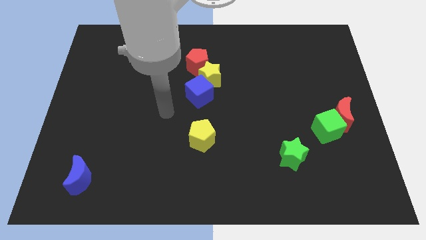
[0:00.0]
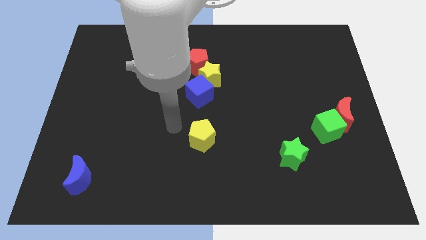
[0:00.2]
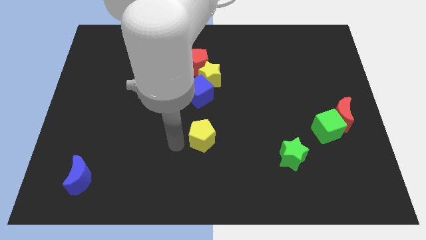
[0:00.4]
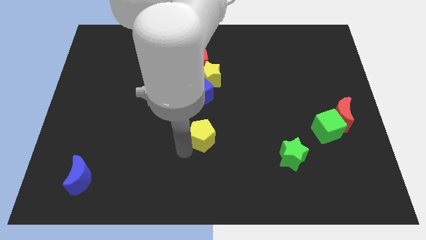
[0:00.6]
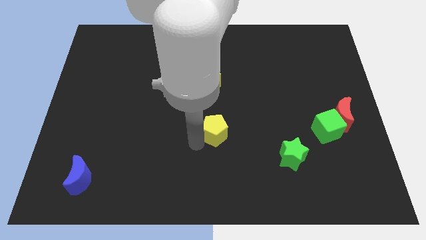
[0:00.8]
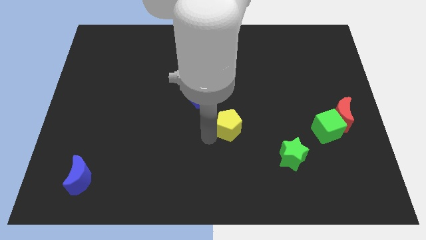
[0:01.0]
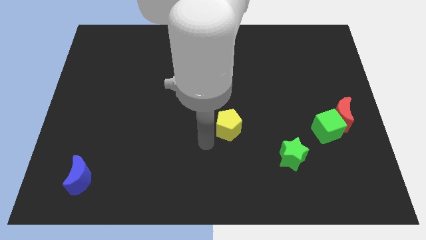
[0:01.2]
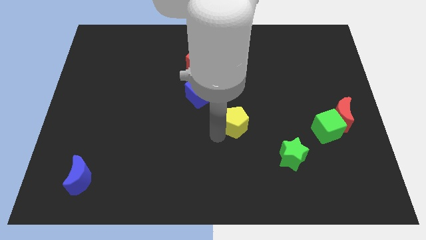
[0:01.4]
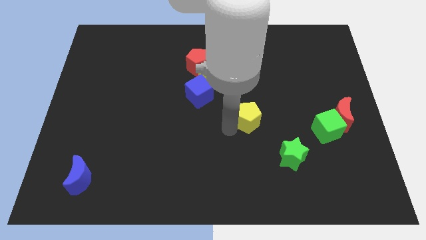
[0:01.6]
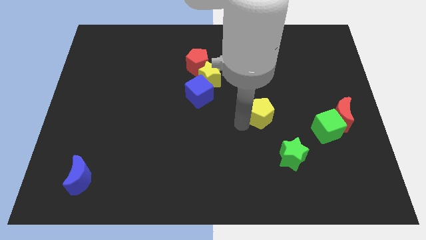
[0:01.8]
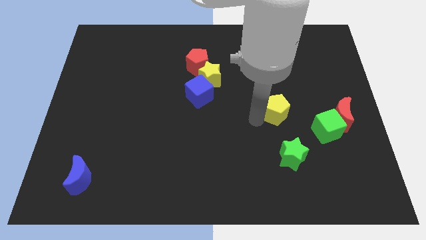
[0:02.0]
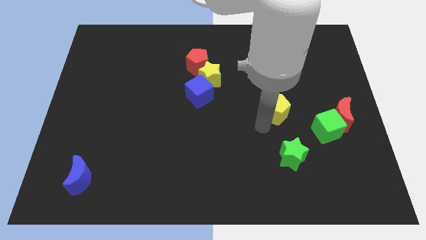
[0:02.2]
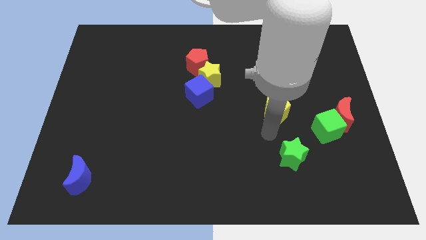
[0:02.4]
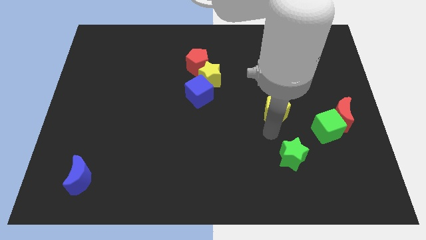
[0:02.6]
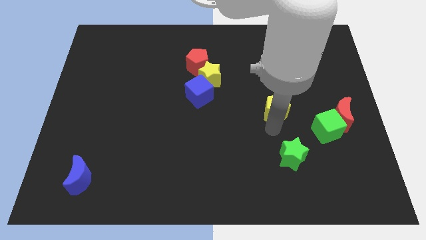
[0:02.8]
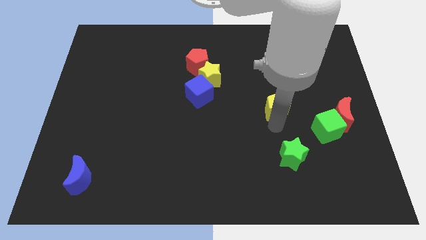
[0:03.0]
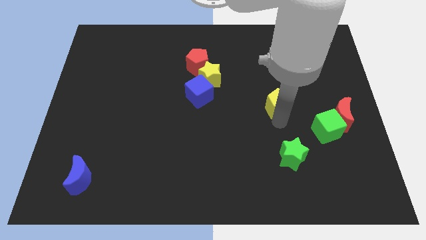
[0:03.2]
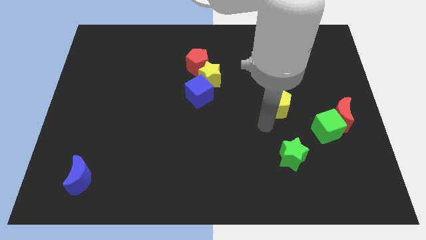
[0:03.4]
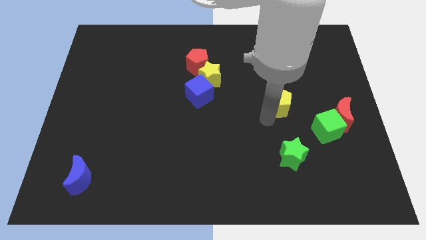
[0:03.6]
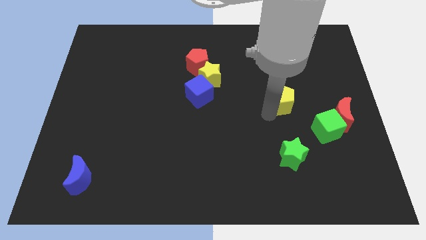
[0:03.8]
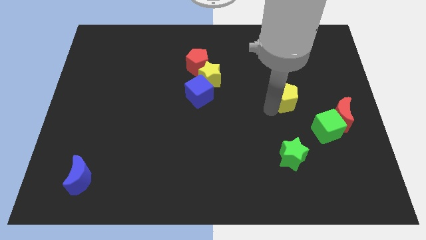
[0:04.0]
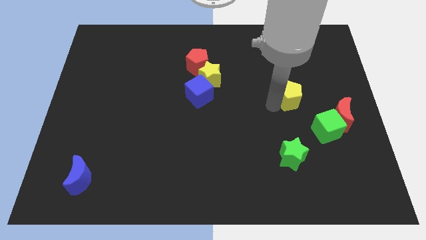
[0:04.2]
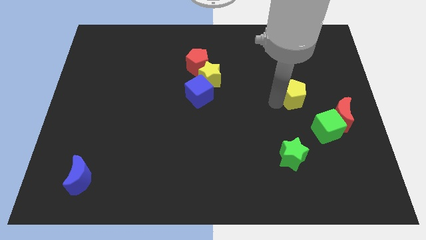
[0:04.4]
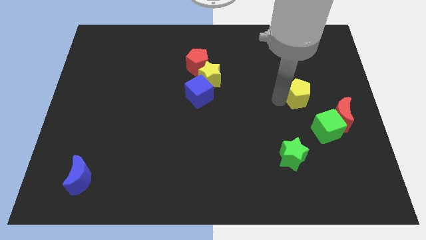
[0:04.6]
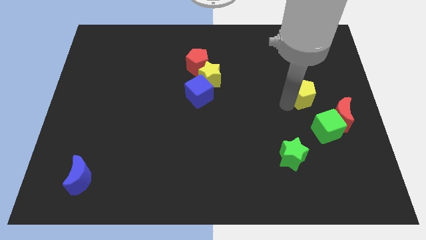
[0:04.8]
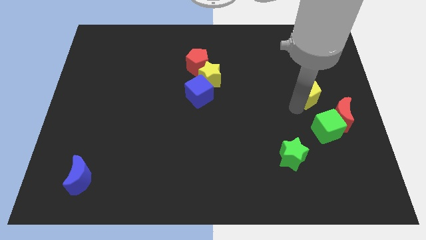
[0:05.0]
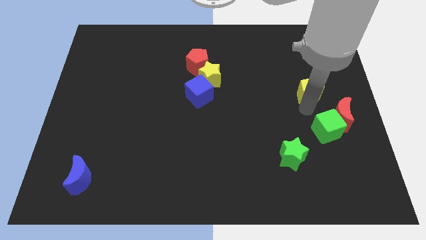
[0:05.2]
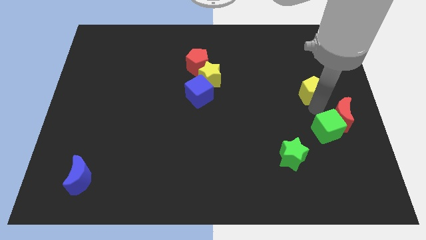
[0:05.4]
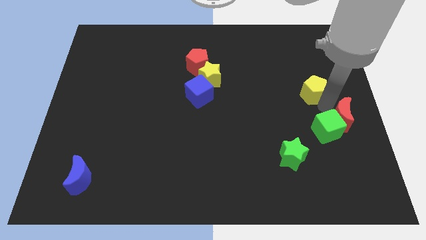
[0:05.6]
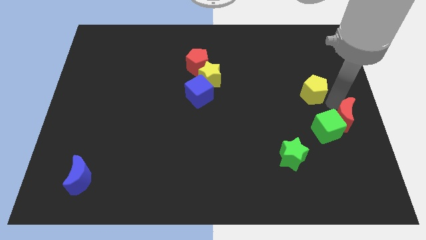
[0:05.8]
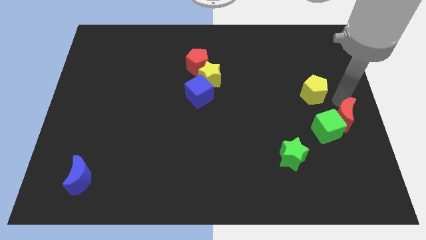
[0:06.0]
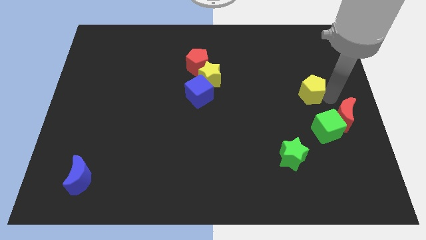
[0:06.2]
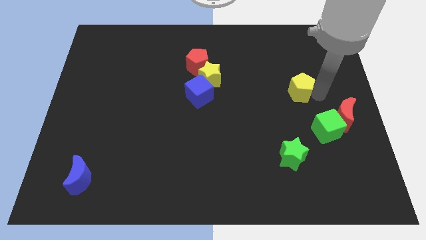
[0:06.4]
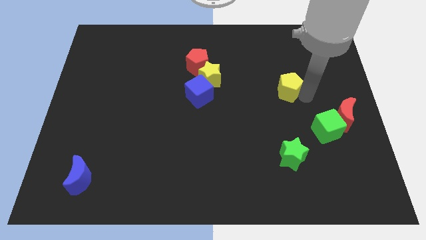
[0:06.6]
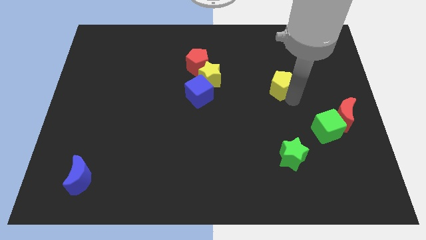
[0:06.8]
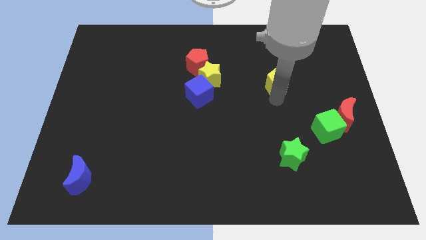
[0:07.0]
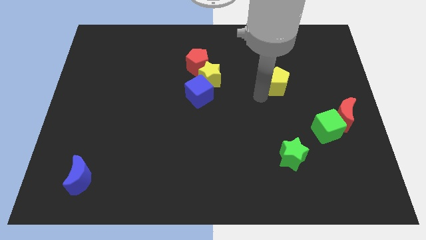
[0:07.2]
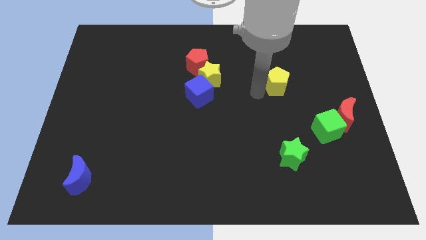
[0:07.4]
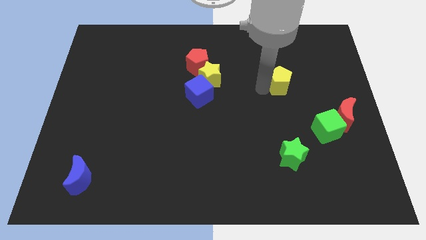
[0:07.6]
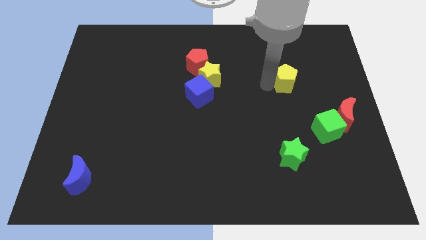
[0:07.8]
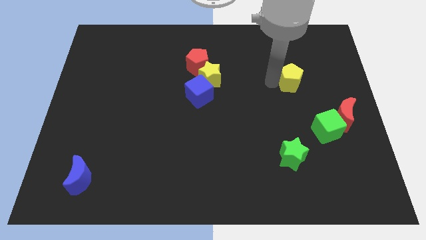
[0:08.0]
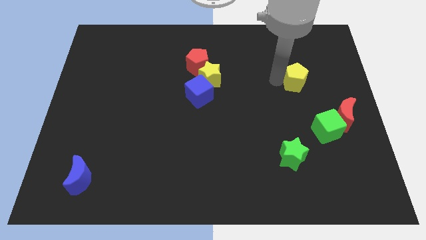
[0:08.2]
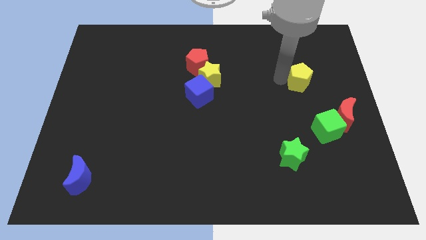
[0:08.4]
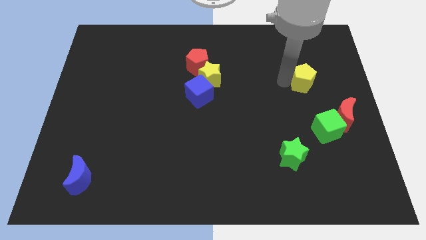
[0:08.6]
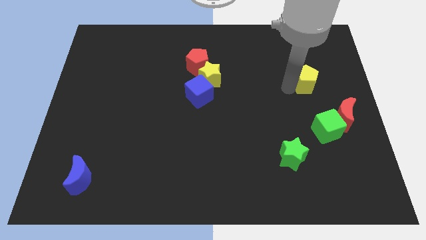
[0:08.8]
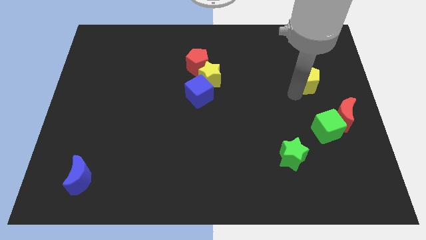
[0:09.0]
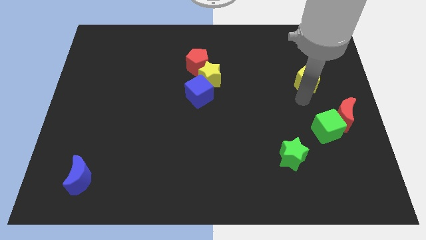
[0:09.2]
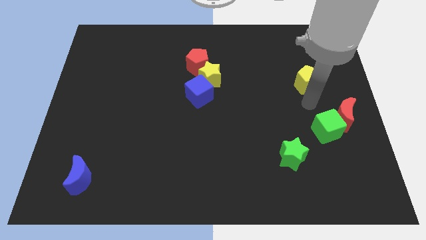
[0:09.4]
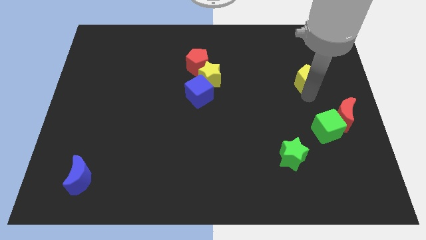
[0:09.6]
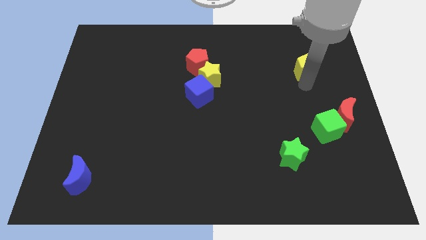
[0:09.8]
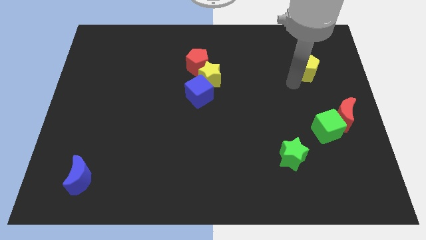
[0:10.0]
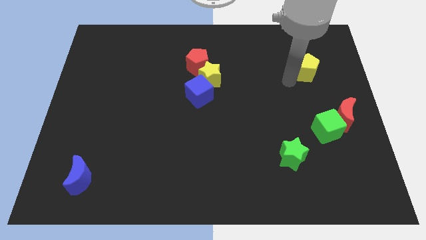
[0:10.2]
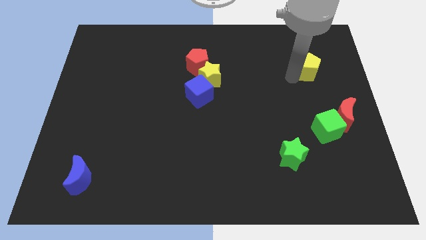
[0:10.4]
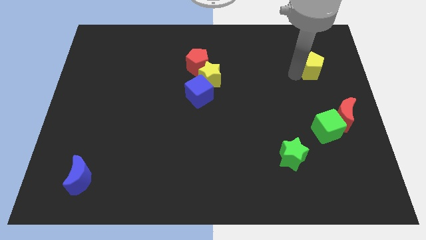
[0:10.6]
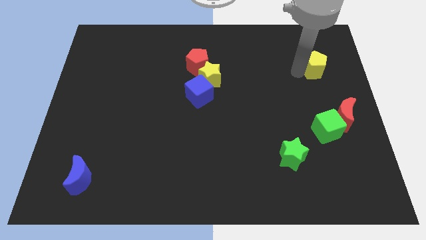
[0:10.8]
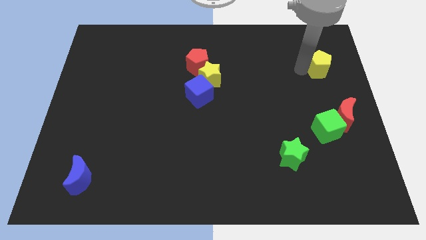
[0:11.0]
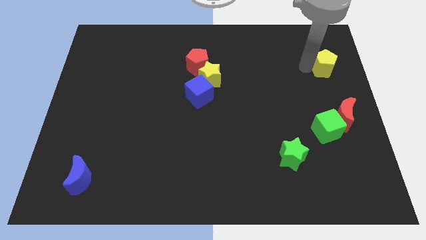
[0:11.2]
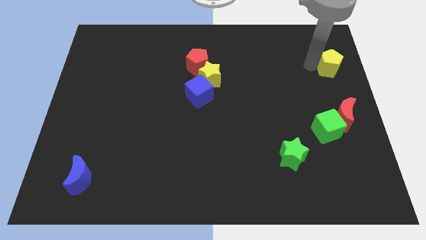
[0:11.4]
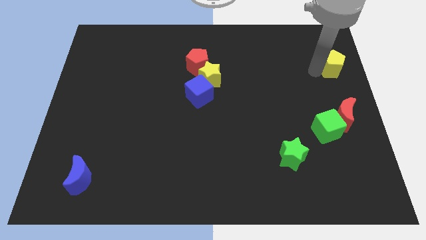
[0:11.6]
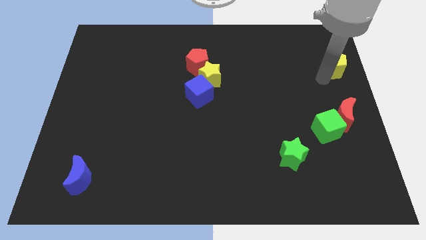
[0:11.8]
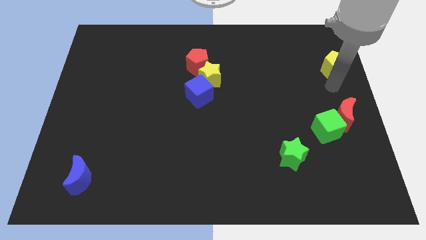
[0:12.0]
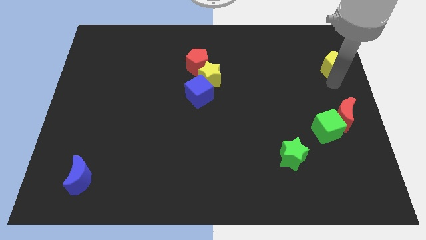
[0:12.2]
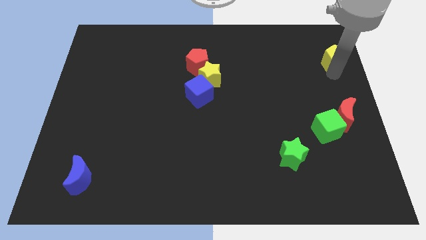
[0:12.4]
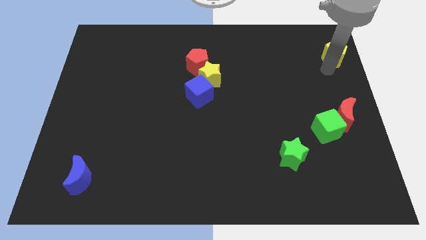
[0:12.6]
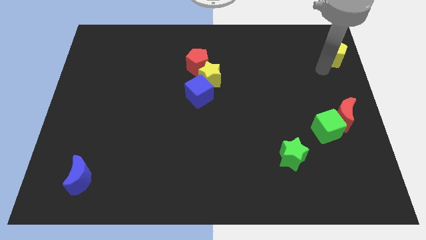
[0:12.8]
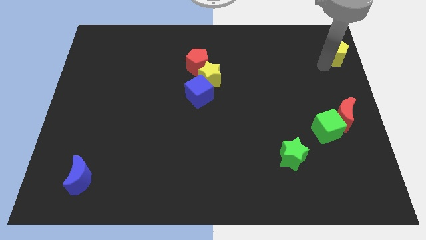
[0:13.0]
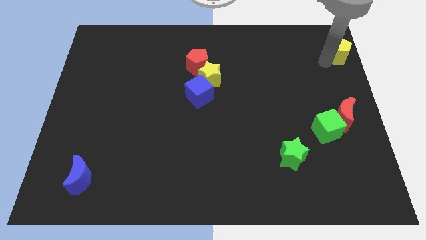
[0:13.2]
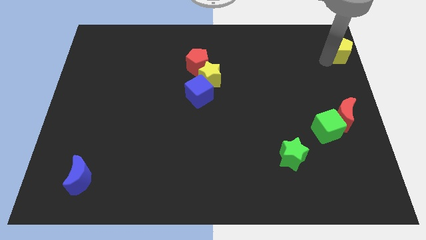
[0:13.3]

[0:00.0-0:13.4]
move the yellow pentagon to the top right of the board
